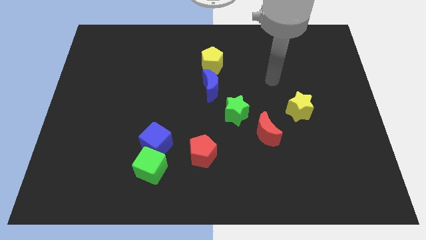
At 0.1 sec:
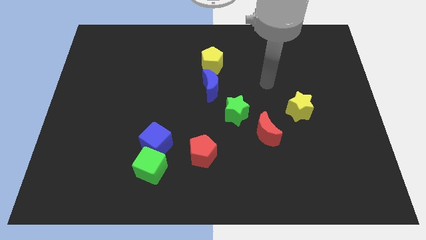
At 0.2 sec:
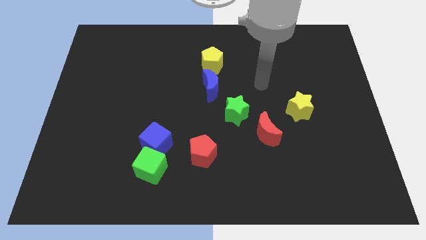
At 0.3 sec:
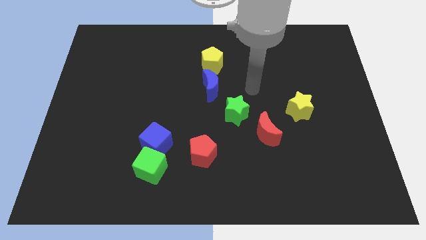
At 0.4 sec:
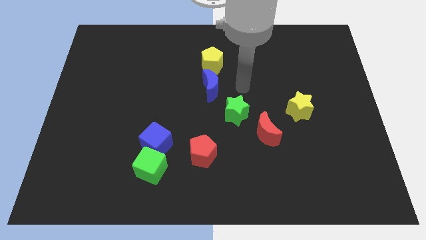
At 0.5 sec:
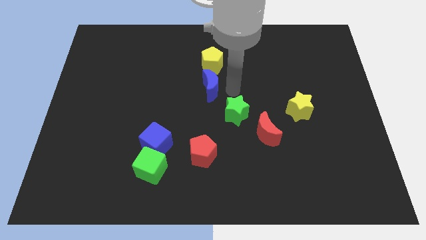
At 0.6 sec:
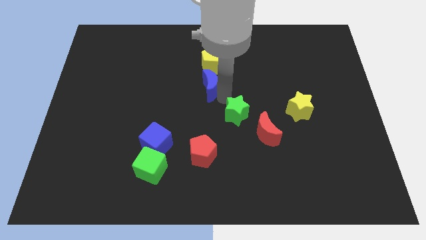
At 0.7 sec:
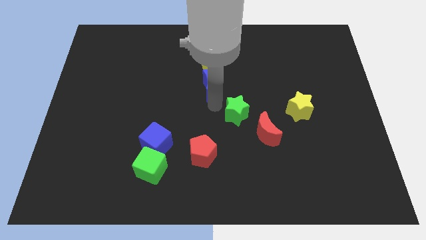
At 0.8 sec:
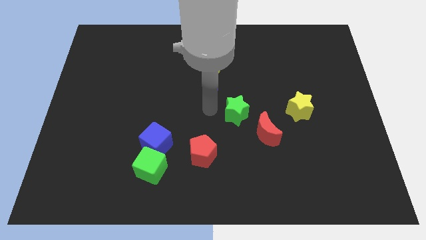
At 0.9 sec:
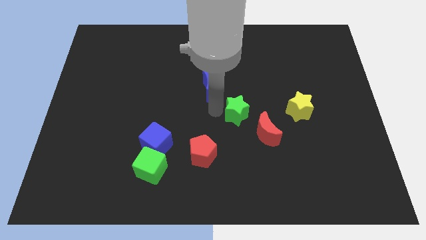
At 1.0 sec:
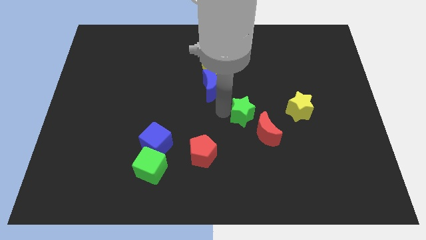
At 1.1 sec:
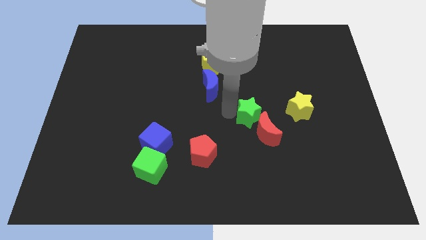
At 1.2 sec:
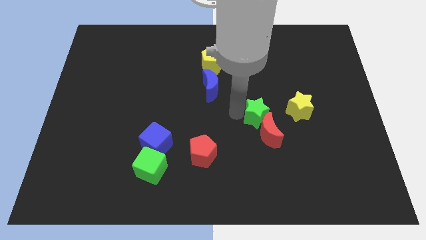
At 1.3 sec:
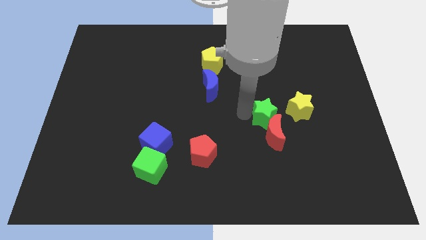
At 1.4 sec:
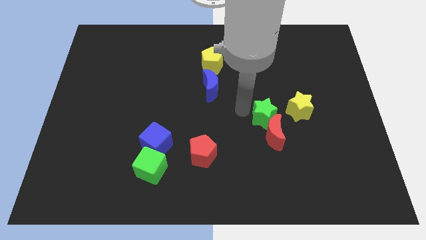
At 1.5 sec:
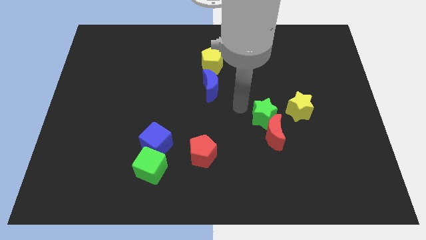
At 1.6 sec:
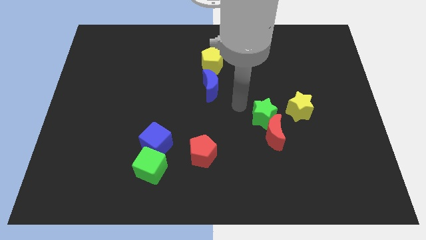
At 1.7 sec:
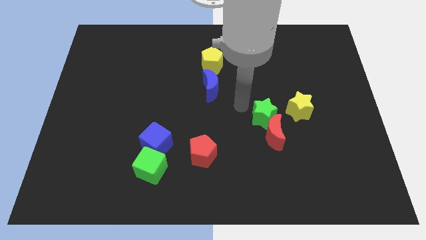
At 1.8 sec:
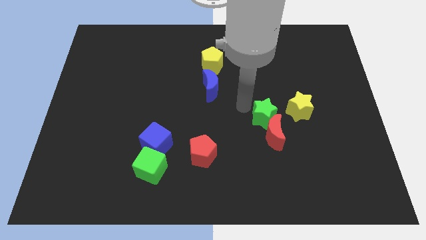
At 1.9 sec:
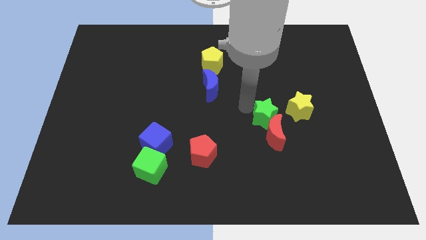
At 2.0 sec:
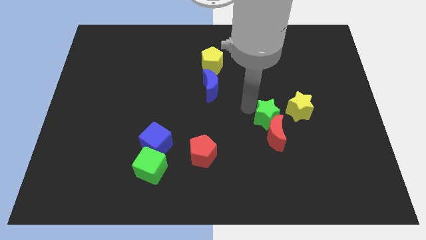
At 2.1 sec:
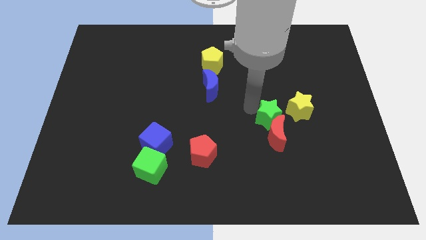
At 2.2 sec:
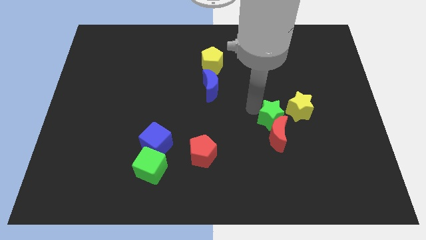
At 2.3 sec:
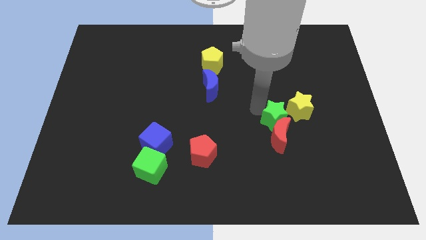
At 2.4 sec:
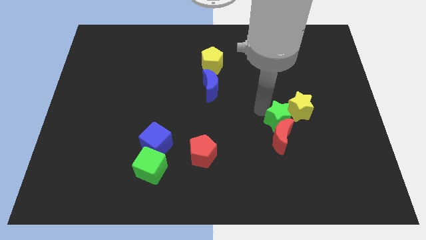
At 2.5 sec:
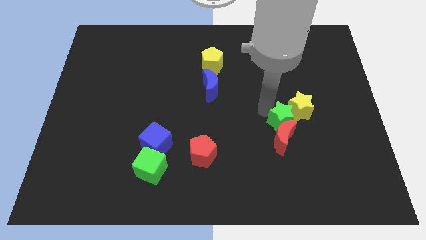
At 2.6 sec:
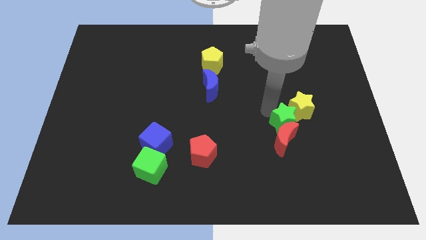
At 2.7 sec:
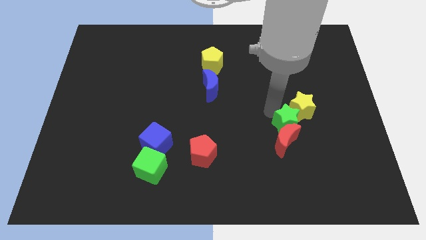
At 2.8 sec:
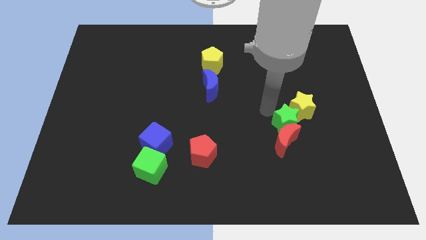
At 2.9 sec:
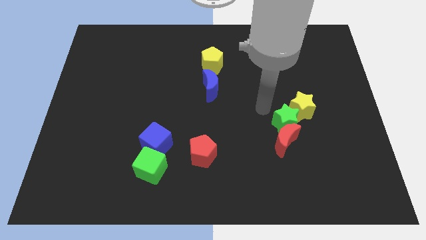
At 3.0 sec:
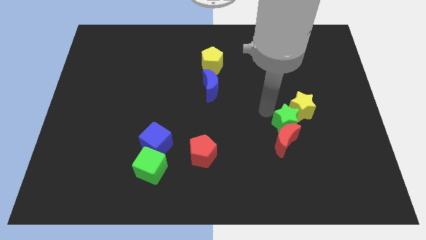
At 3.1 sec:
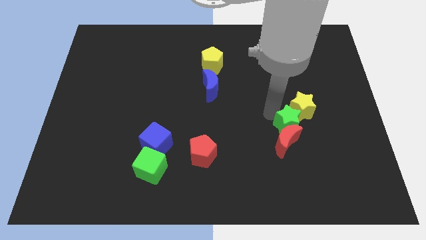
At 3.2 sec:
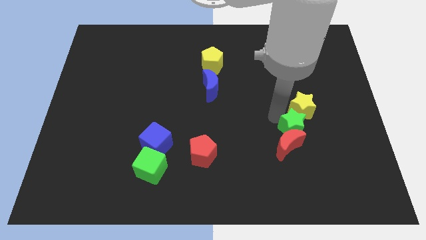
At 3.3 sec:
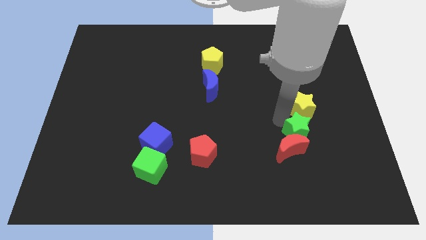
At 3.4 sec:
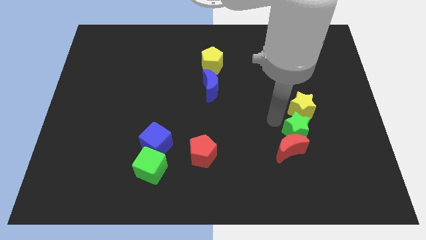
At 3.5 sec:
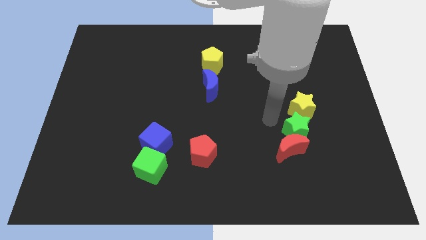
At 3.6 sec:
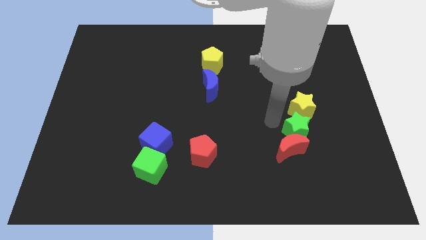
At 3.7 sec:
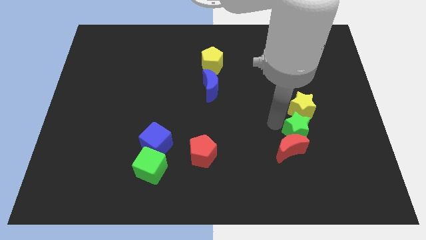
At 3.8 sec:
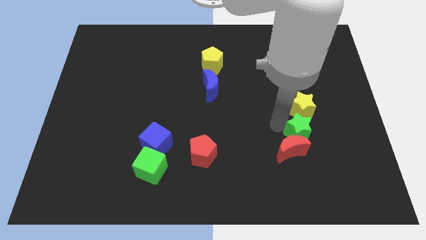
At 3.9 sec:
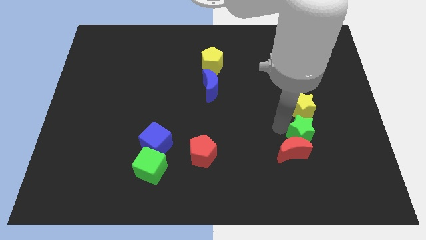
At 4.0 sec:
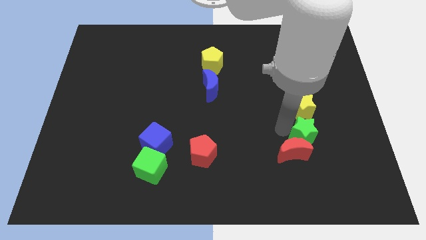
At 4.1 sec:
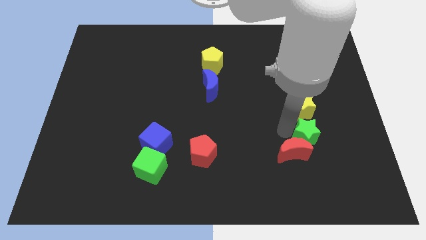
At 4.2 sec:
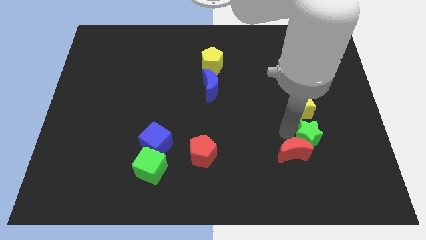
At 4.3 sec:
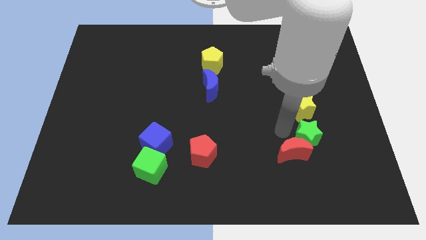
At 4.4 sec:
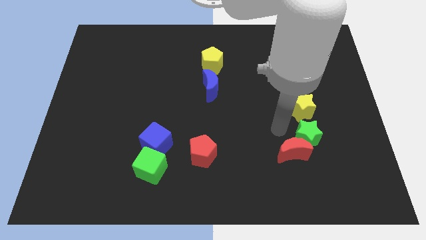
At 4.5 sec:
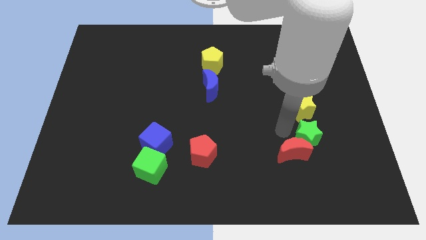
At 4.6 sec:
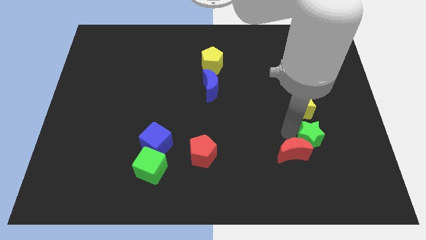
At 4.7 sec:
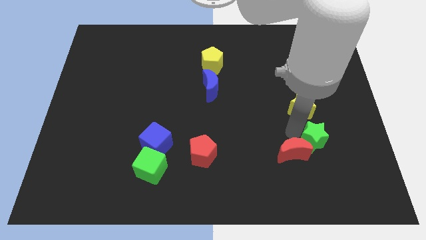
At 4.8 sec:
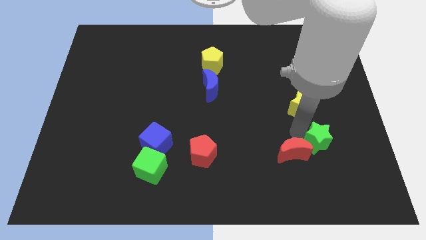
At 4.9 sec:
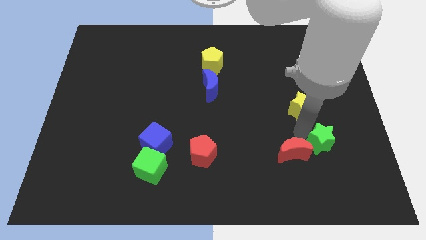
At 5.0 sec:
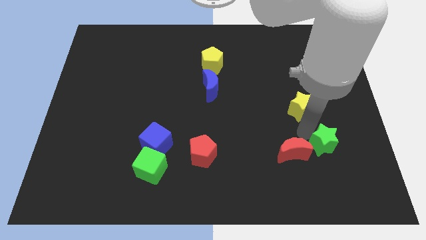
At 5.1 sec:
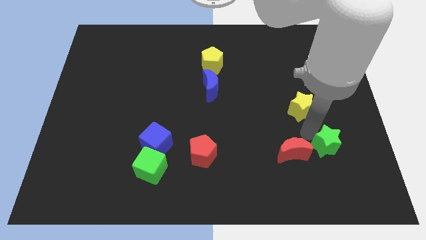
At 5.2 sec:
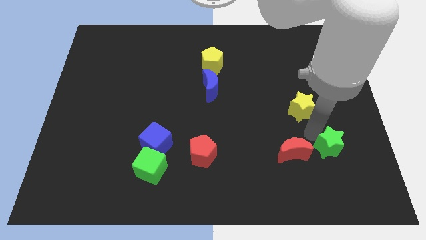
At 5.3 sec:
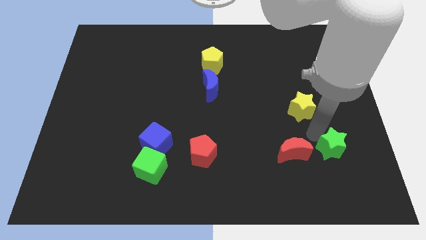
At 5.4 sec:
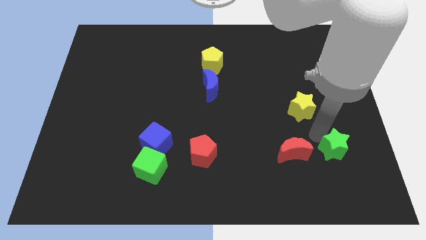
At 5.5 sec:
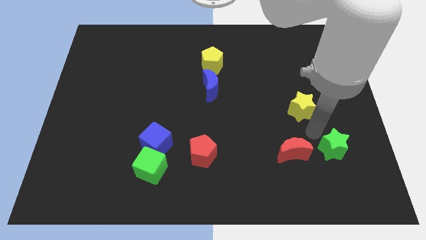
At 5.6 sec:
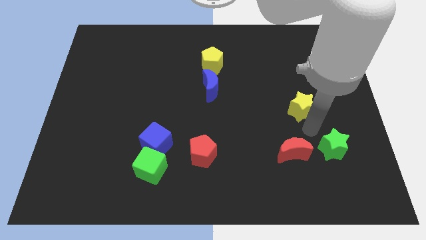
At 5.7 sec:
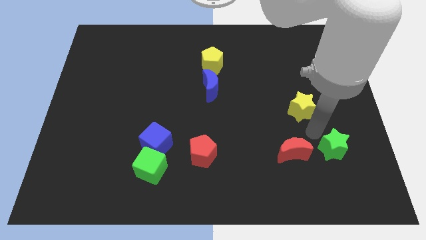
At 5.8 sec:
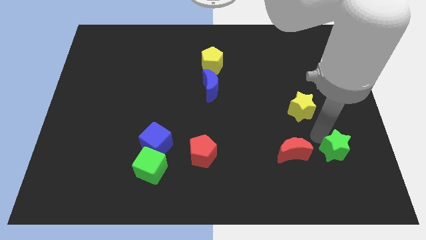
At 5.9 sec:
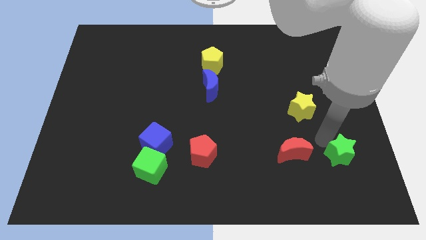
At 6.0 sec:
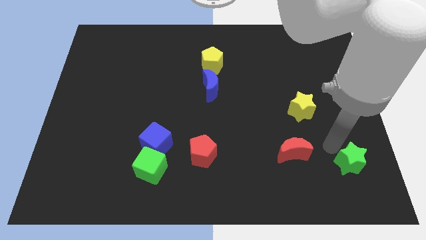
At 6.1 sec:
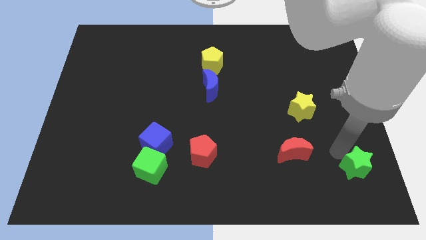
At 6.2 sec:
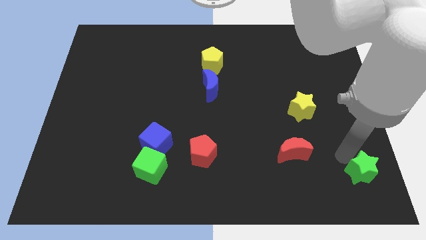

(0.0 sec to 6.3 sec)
slide the green star to the bottom right corner

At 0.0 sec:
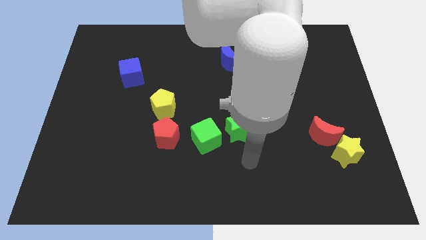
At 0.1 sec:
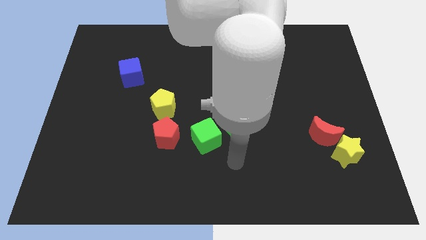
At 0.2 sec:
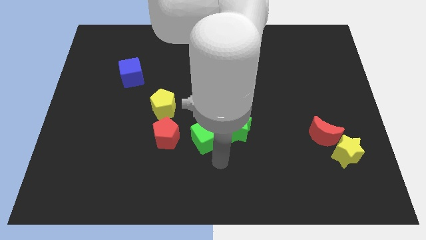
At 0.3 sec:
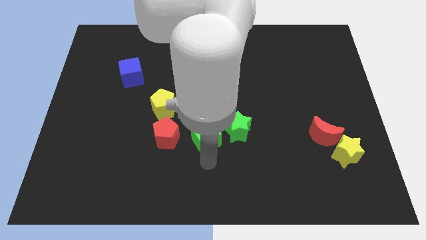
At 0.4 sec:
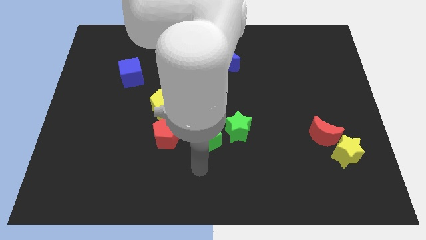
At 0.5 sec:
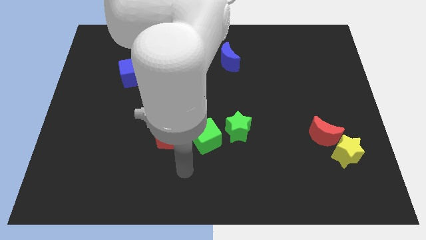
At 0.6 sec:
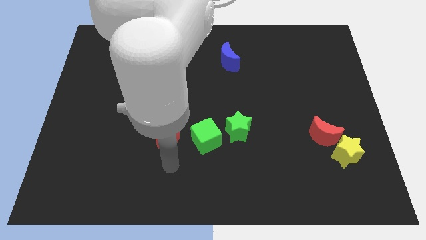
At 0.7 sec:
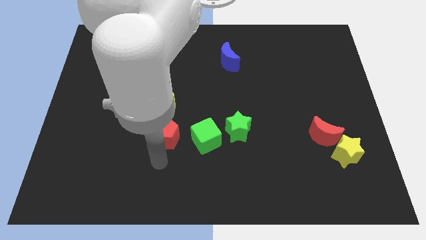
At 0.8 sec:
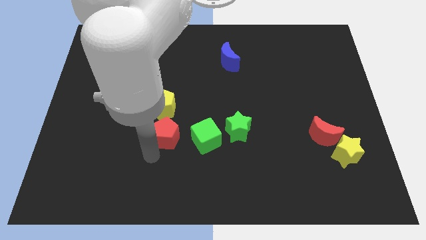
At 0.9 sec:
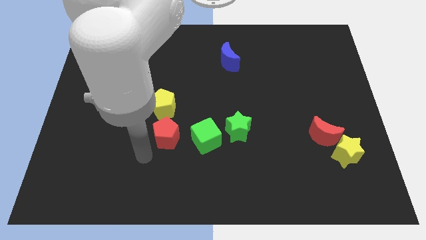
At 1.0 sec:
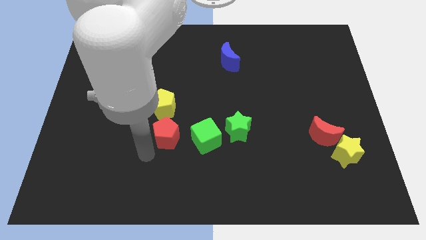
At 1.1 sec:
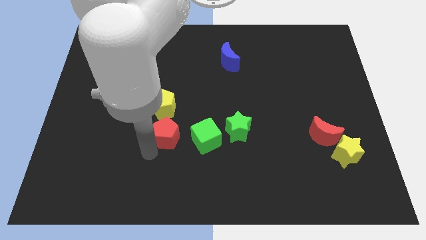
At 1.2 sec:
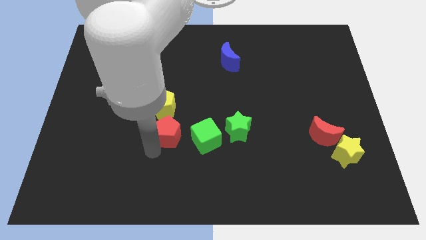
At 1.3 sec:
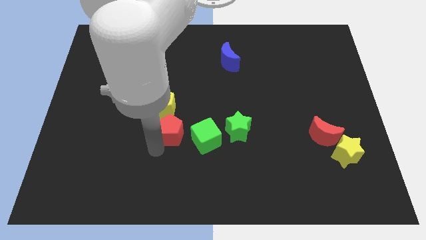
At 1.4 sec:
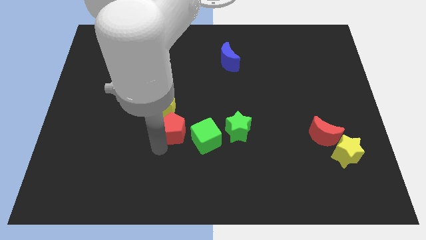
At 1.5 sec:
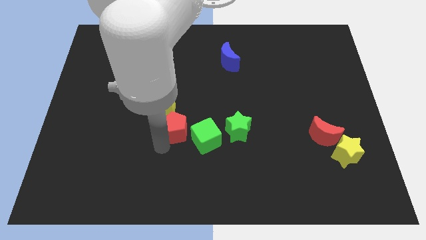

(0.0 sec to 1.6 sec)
move the red pentagon to the middle of the board
